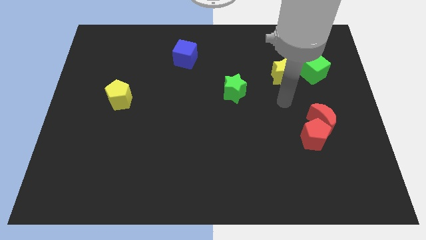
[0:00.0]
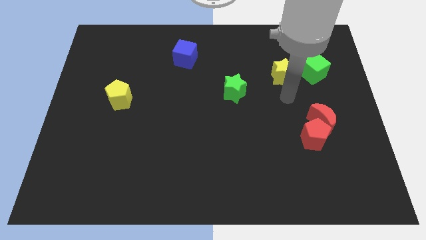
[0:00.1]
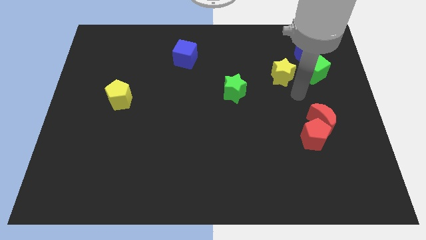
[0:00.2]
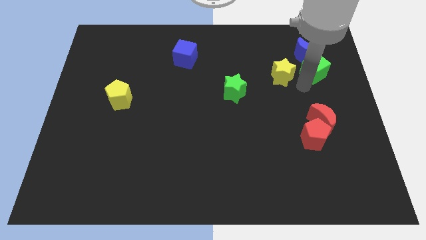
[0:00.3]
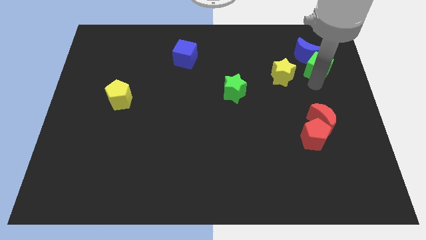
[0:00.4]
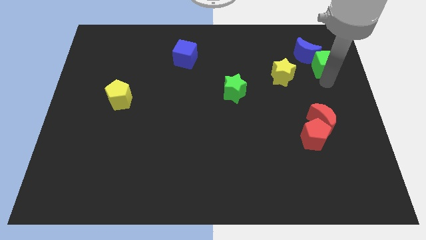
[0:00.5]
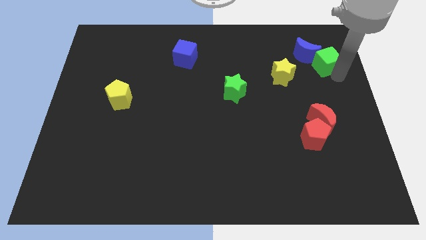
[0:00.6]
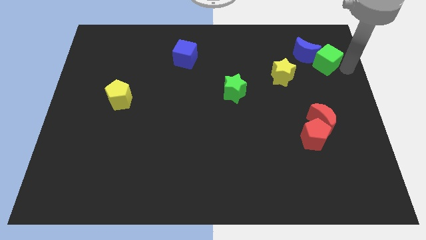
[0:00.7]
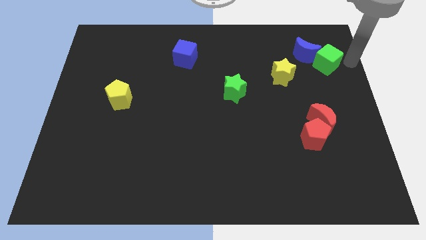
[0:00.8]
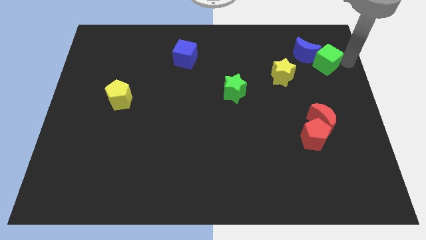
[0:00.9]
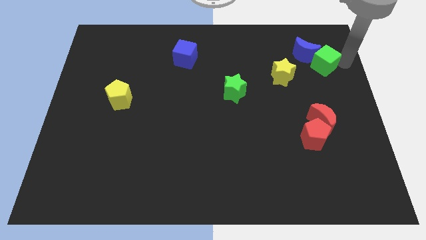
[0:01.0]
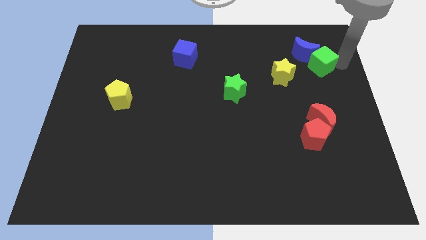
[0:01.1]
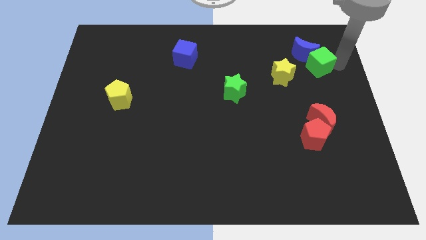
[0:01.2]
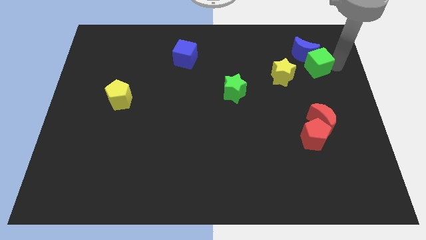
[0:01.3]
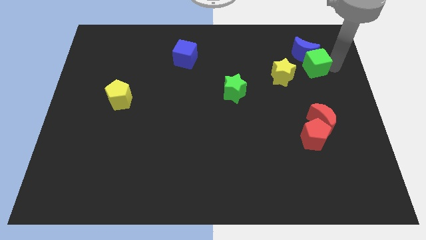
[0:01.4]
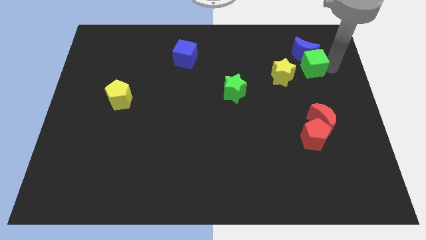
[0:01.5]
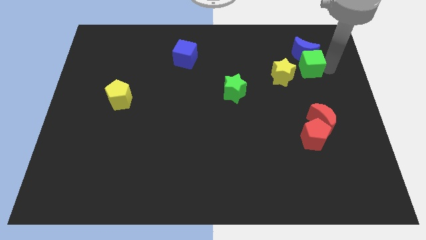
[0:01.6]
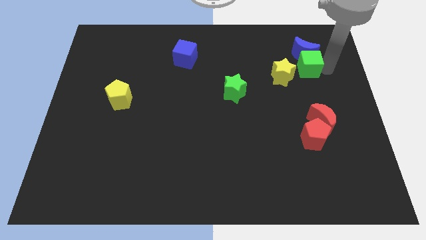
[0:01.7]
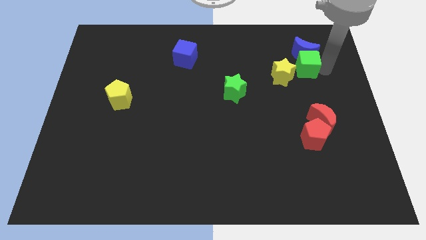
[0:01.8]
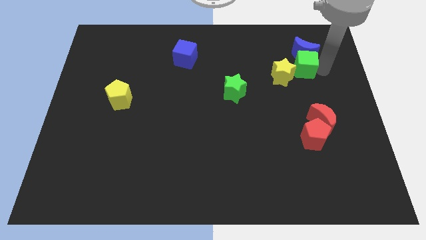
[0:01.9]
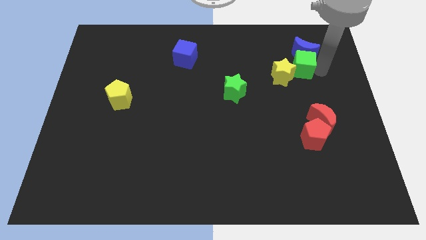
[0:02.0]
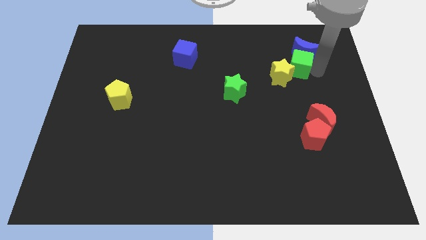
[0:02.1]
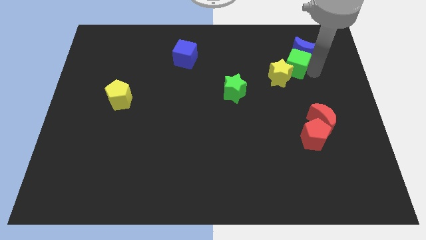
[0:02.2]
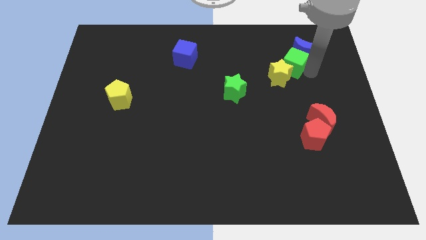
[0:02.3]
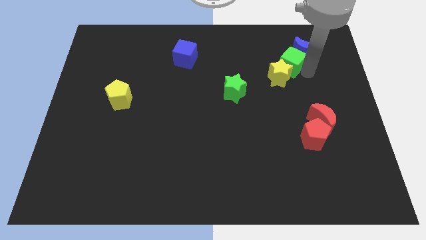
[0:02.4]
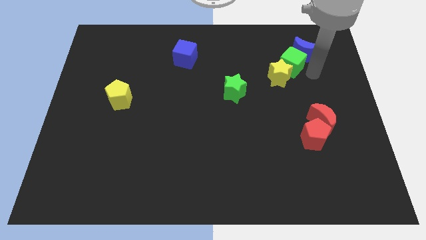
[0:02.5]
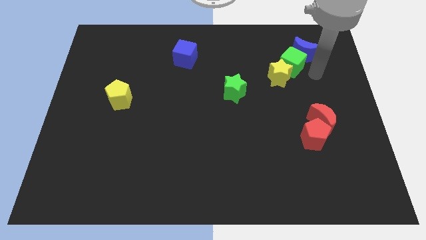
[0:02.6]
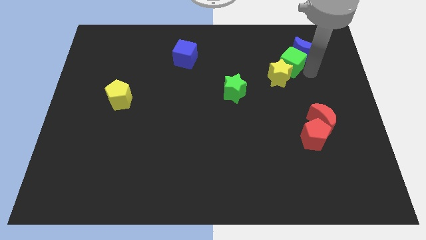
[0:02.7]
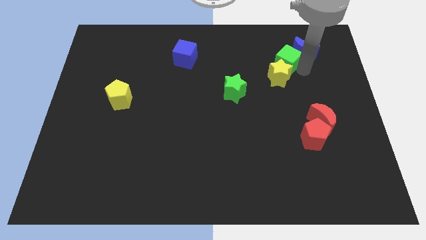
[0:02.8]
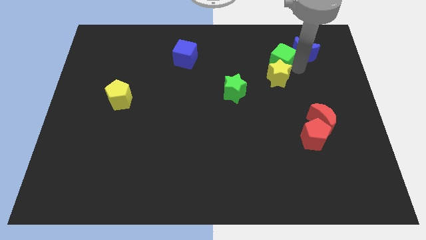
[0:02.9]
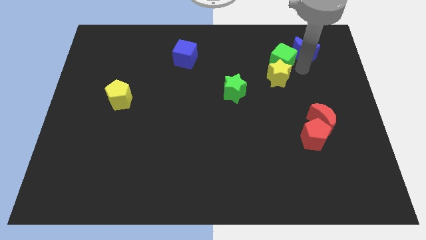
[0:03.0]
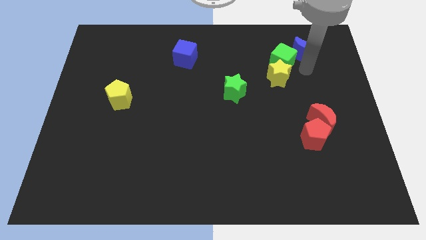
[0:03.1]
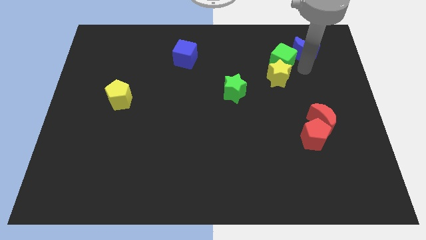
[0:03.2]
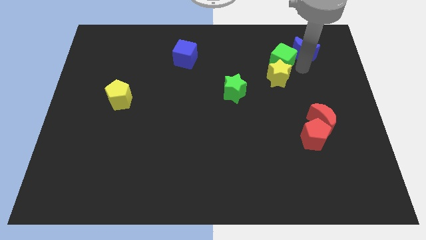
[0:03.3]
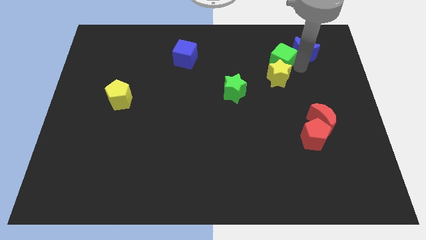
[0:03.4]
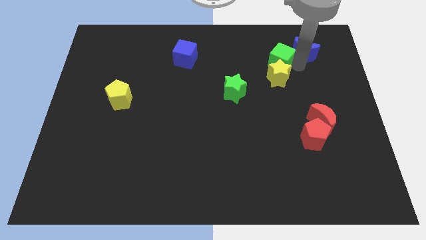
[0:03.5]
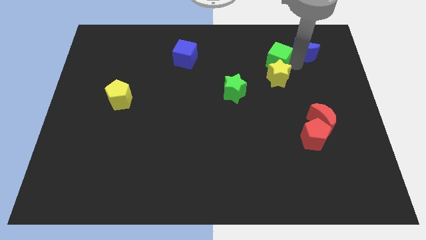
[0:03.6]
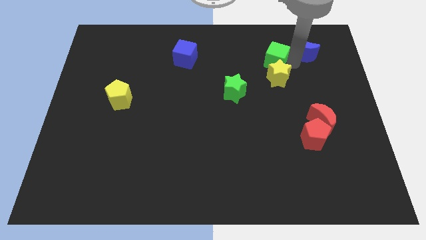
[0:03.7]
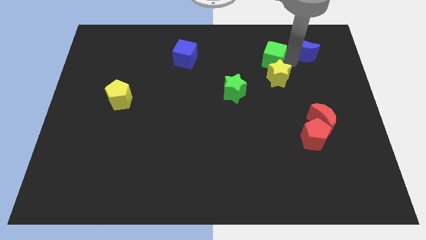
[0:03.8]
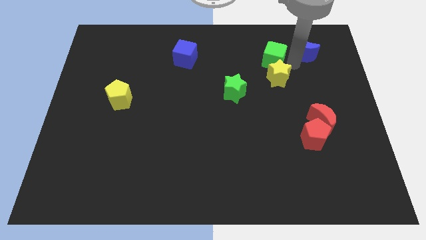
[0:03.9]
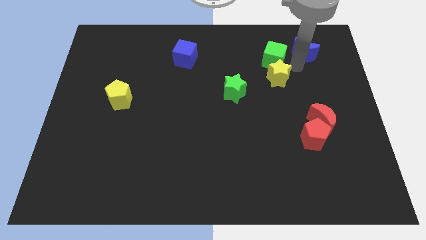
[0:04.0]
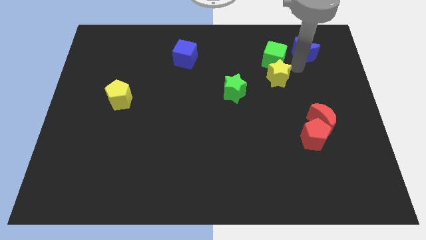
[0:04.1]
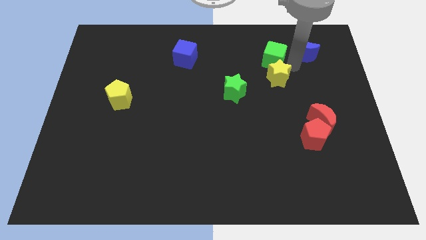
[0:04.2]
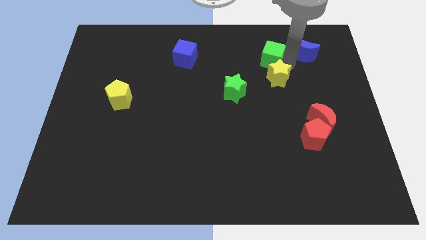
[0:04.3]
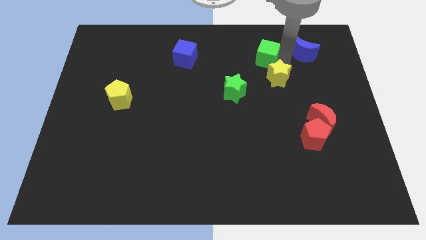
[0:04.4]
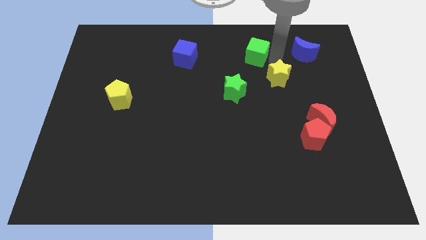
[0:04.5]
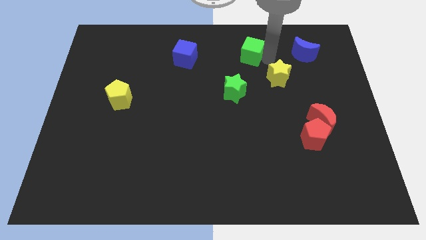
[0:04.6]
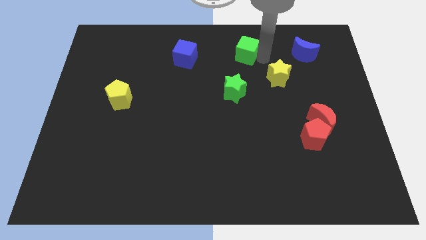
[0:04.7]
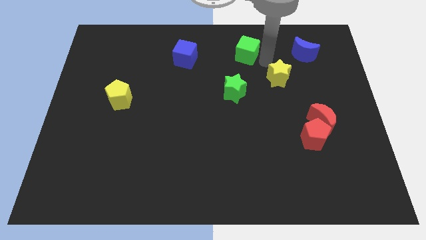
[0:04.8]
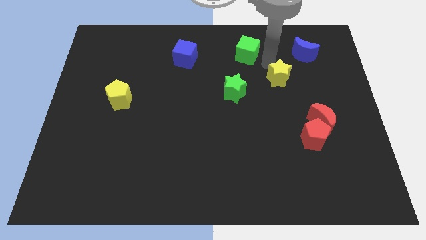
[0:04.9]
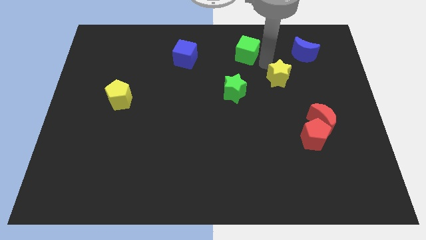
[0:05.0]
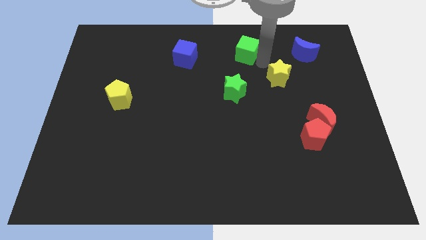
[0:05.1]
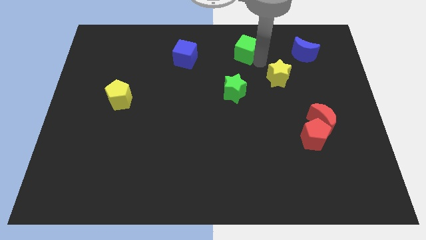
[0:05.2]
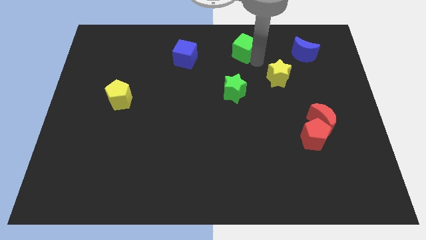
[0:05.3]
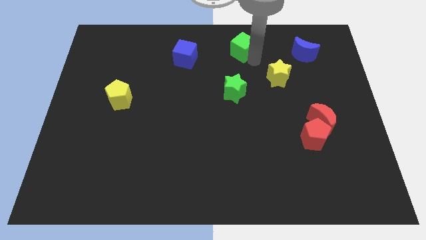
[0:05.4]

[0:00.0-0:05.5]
put the green cube to the top side

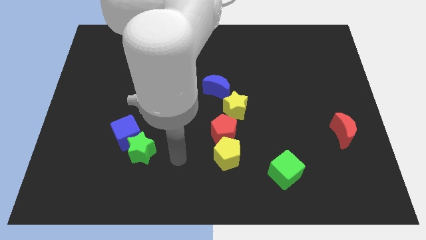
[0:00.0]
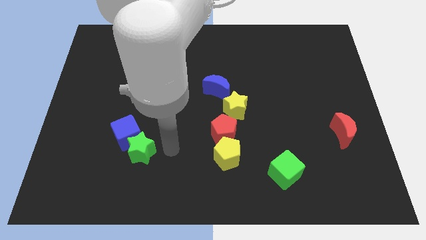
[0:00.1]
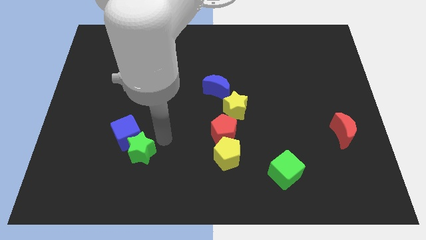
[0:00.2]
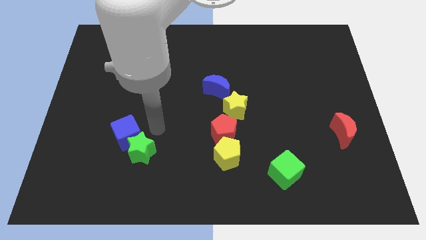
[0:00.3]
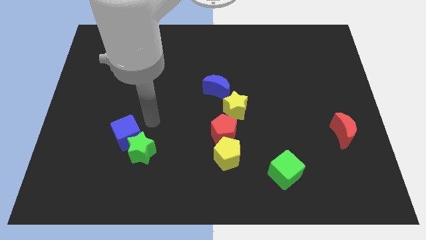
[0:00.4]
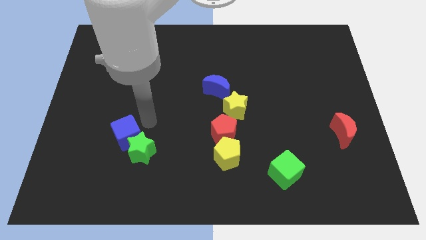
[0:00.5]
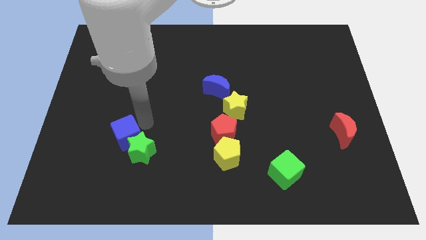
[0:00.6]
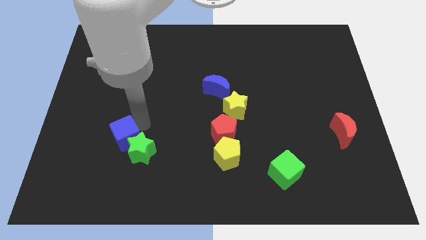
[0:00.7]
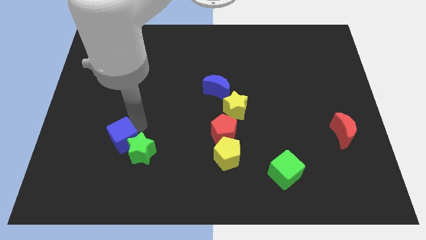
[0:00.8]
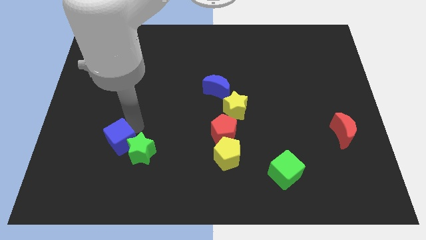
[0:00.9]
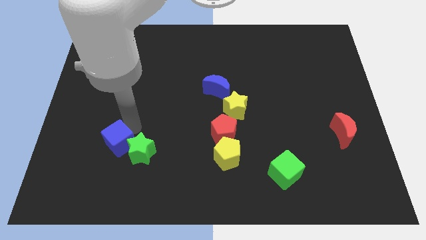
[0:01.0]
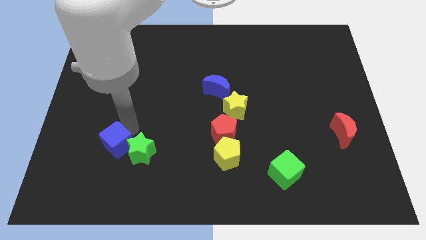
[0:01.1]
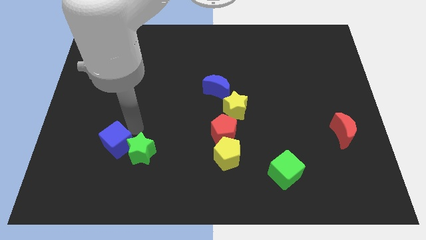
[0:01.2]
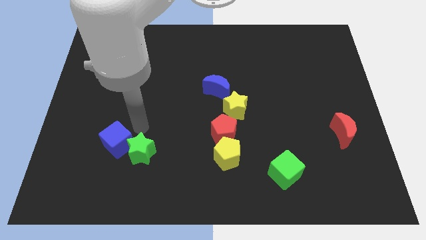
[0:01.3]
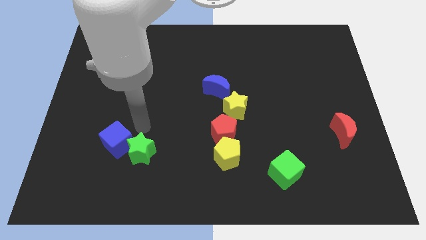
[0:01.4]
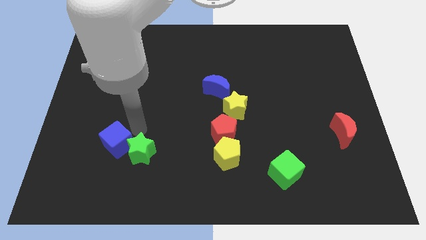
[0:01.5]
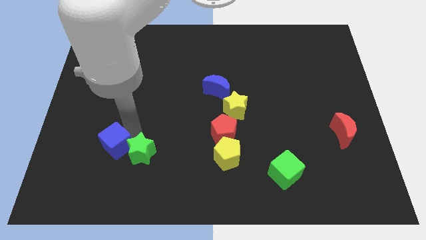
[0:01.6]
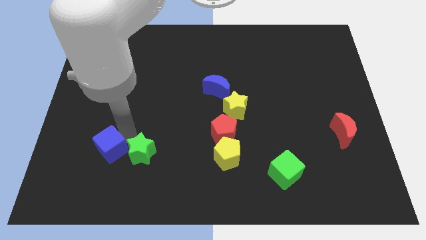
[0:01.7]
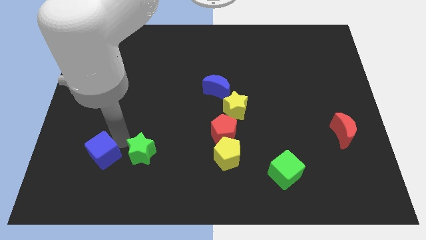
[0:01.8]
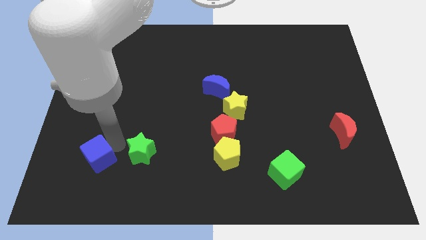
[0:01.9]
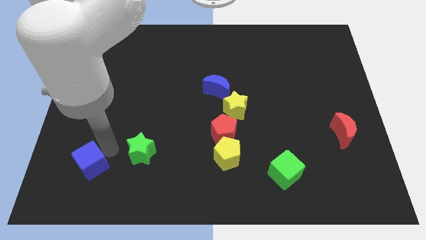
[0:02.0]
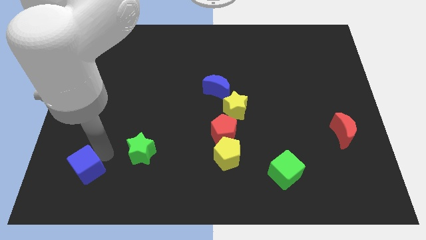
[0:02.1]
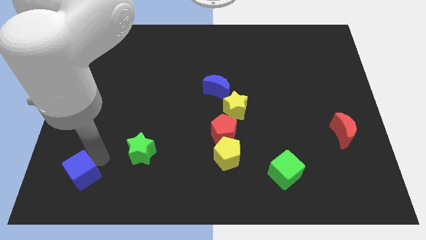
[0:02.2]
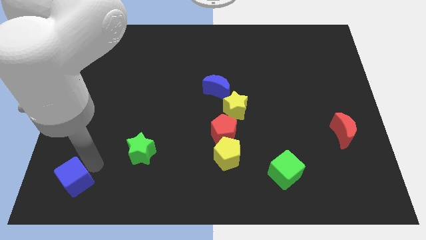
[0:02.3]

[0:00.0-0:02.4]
put the blue cube to the bottom left
